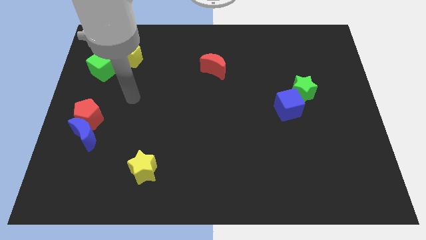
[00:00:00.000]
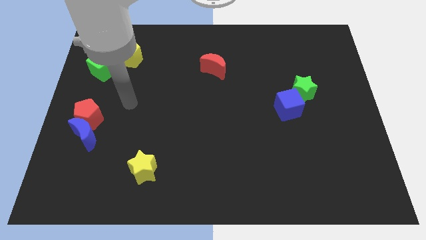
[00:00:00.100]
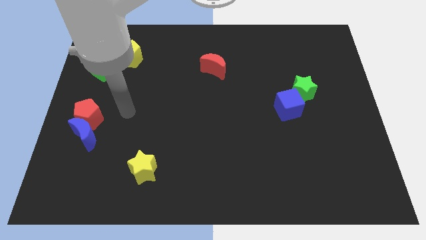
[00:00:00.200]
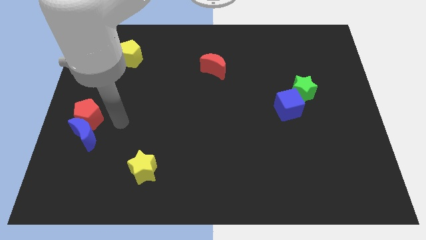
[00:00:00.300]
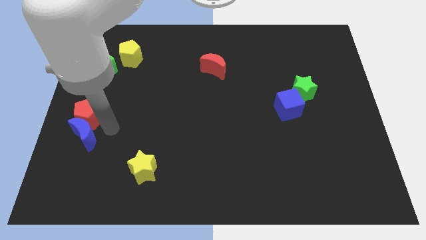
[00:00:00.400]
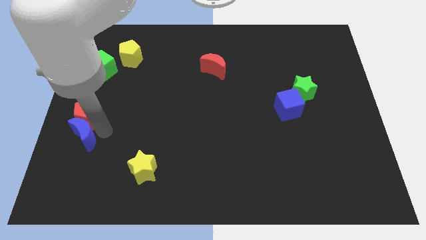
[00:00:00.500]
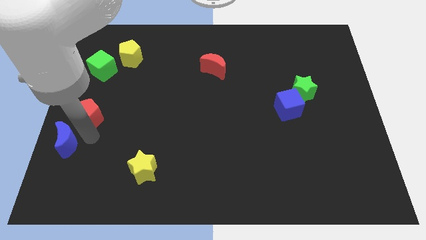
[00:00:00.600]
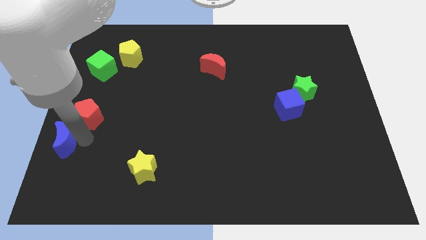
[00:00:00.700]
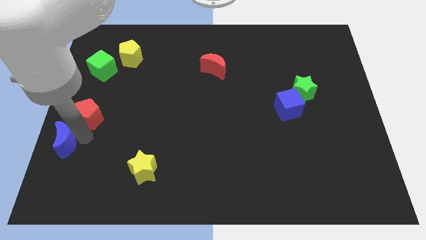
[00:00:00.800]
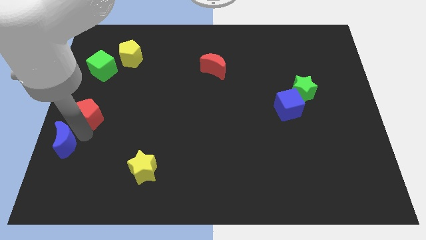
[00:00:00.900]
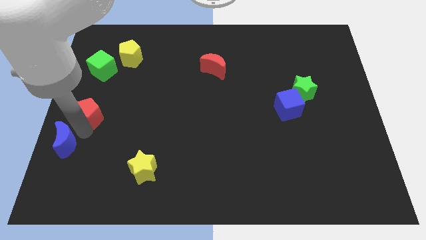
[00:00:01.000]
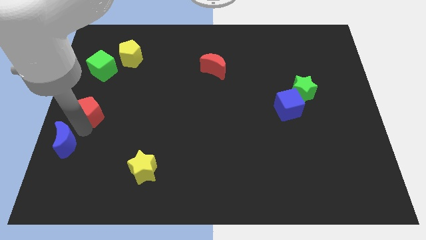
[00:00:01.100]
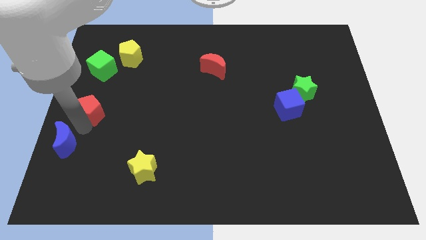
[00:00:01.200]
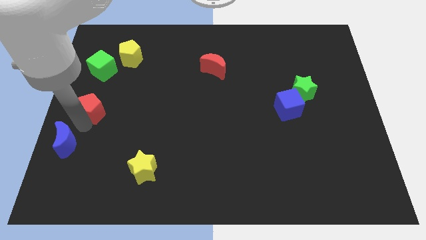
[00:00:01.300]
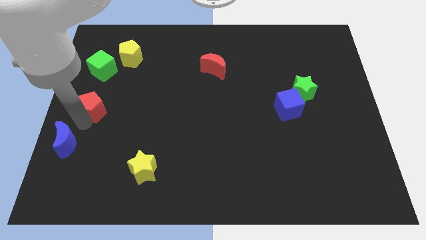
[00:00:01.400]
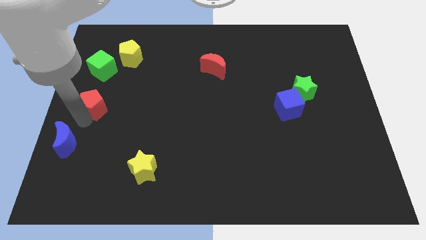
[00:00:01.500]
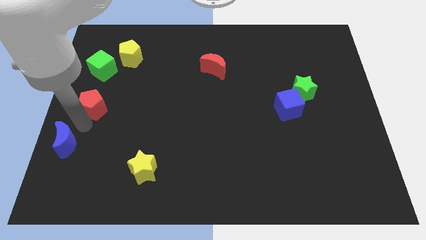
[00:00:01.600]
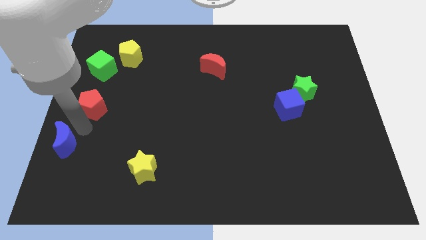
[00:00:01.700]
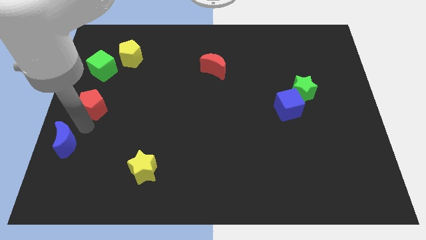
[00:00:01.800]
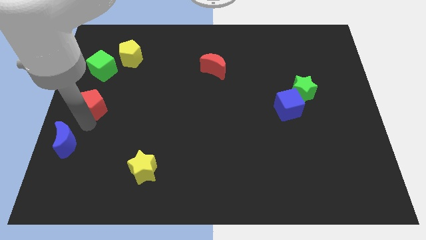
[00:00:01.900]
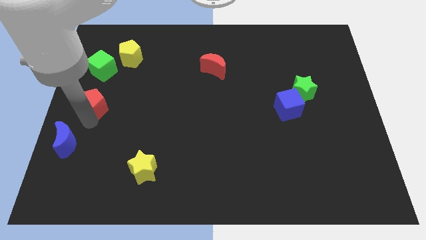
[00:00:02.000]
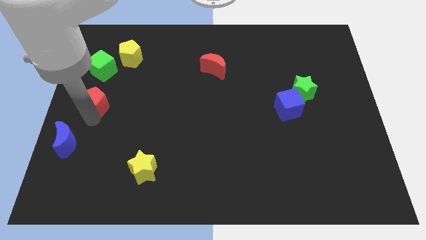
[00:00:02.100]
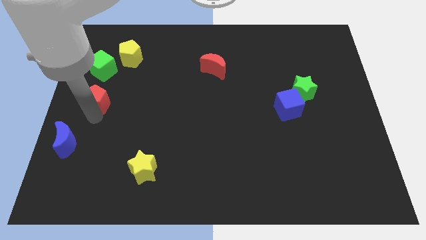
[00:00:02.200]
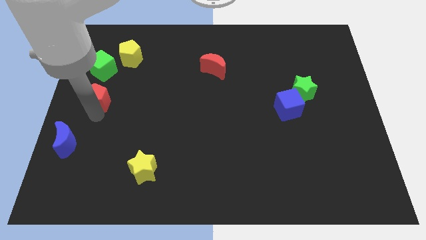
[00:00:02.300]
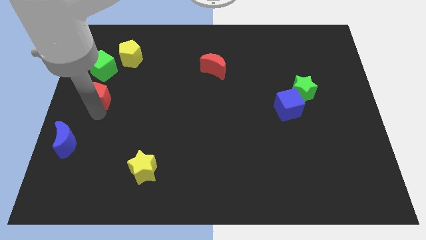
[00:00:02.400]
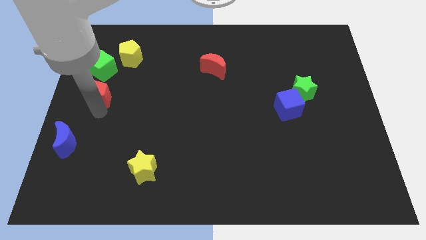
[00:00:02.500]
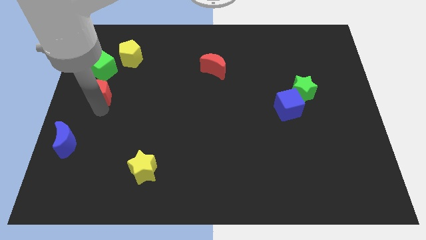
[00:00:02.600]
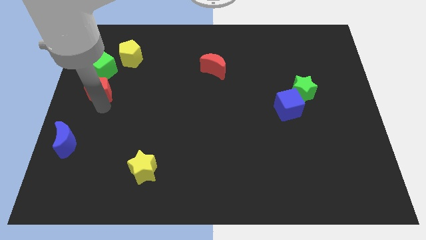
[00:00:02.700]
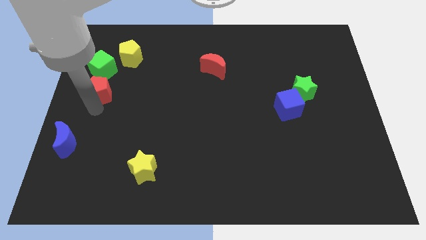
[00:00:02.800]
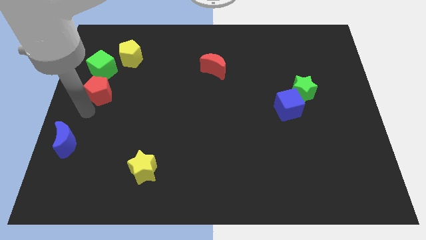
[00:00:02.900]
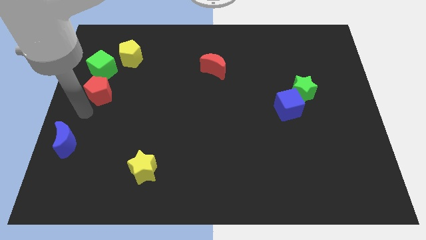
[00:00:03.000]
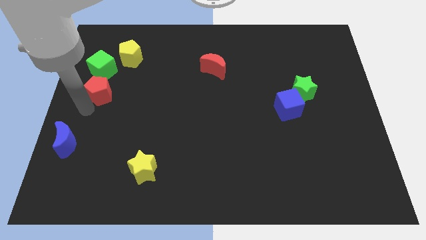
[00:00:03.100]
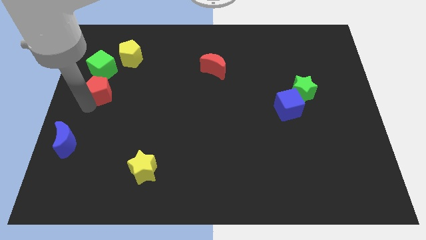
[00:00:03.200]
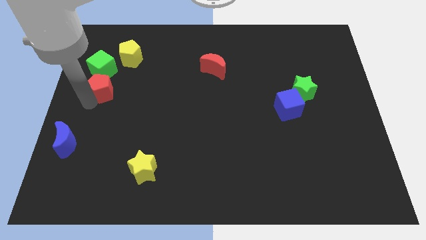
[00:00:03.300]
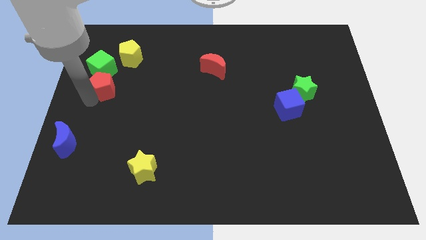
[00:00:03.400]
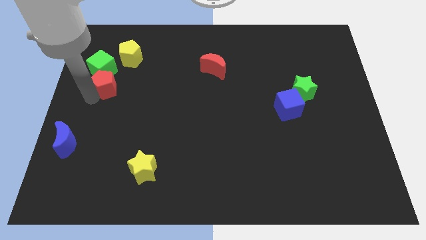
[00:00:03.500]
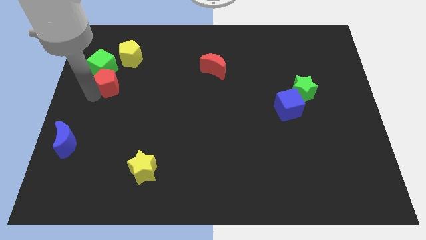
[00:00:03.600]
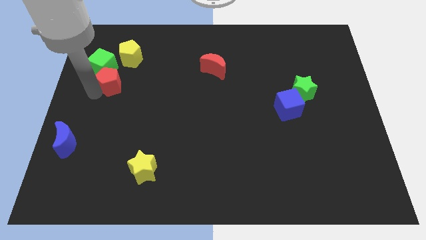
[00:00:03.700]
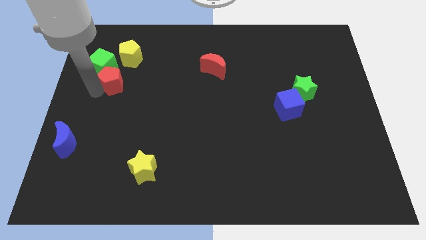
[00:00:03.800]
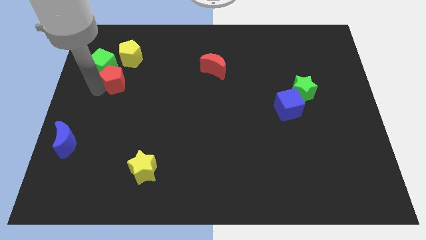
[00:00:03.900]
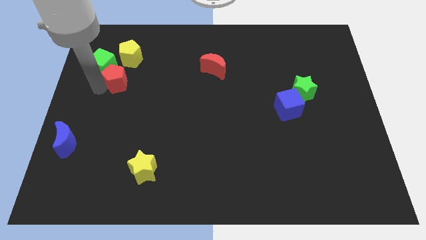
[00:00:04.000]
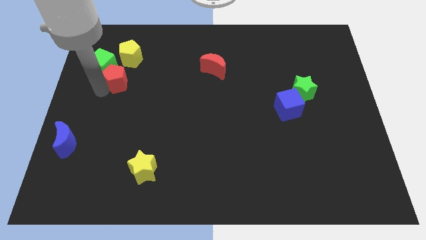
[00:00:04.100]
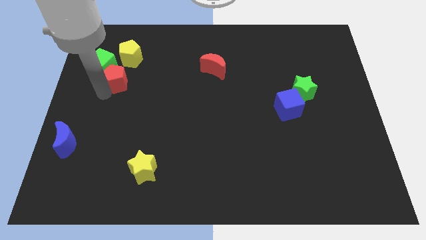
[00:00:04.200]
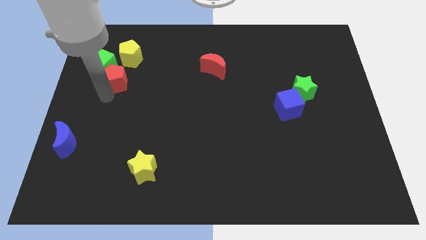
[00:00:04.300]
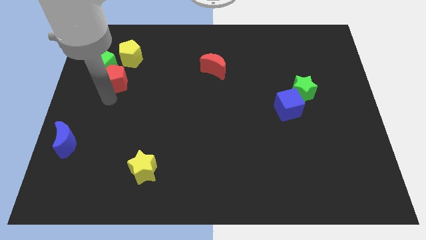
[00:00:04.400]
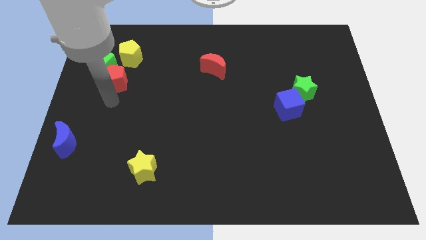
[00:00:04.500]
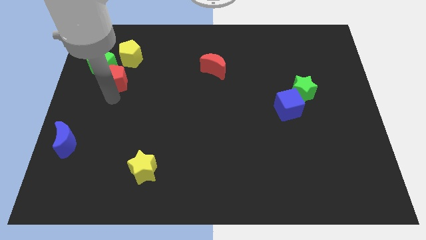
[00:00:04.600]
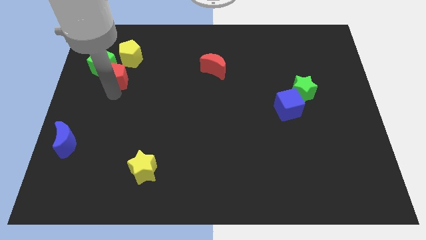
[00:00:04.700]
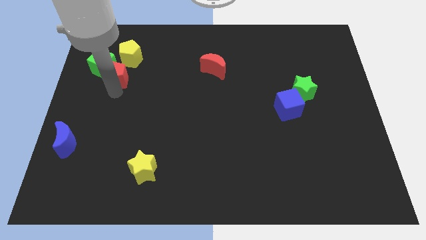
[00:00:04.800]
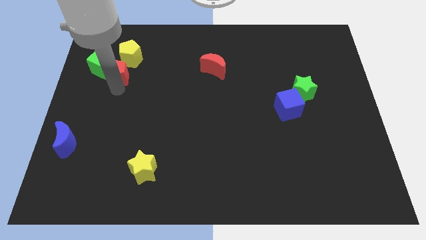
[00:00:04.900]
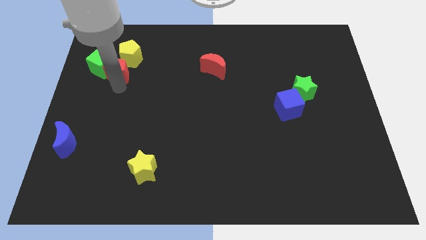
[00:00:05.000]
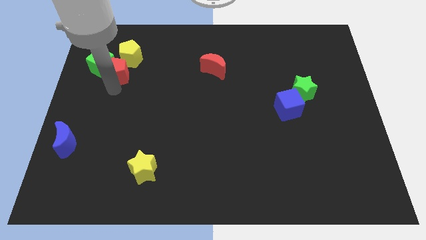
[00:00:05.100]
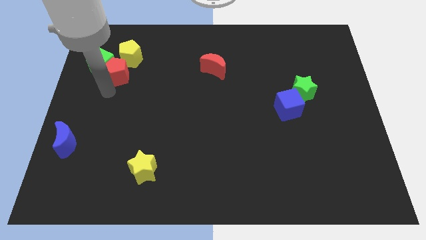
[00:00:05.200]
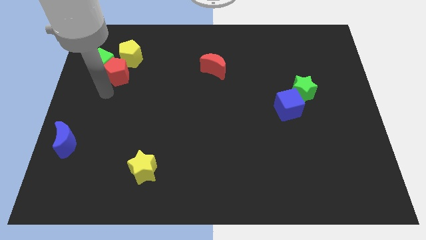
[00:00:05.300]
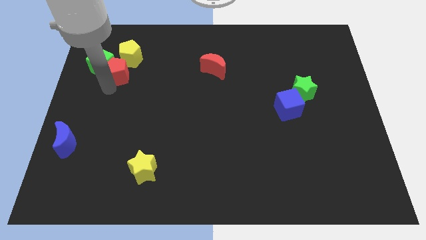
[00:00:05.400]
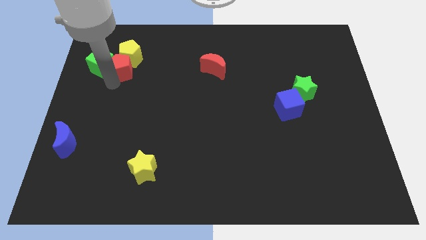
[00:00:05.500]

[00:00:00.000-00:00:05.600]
put the red pentagon towards the yellow pentagon

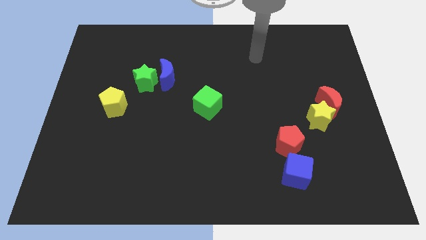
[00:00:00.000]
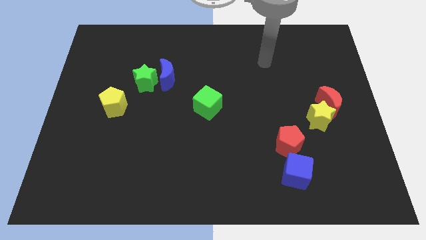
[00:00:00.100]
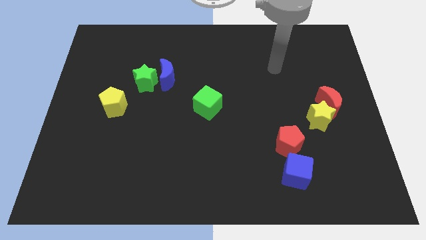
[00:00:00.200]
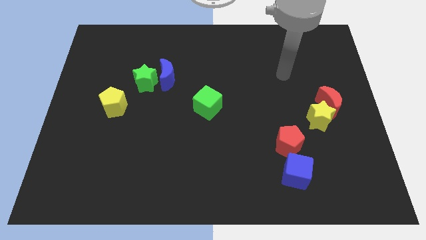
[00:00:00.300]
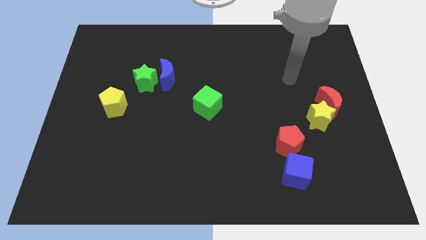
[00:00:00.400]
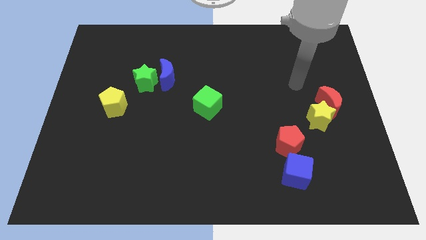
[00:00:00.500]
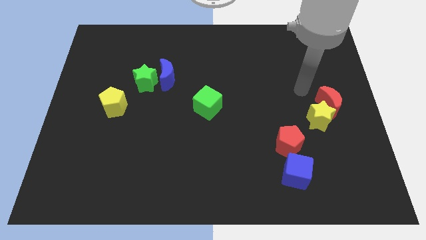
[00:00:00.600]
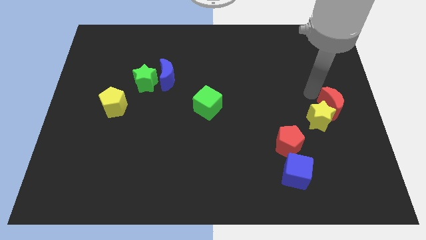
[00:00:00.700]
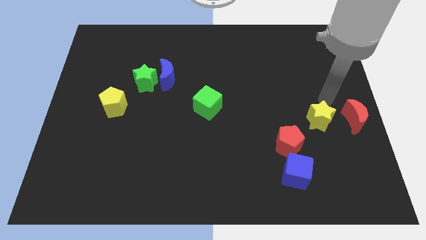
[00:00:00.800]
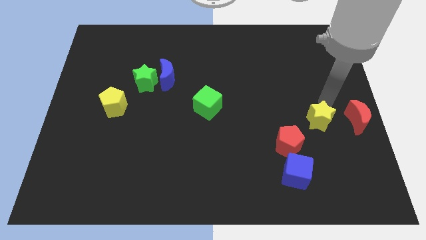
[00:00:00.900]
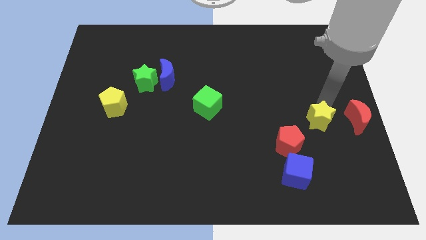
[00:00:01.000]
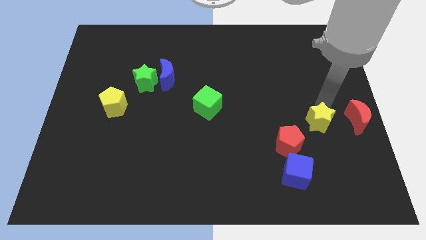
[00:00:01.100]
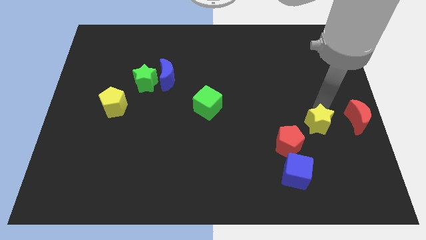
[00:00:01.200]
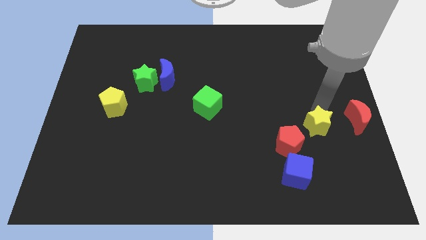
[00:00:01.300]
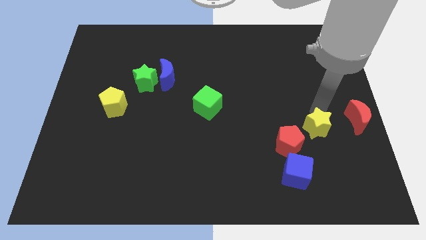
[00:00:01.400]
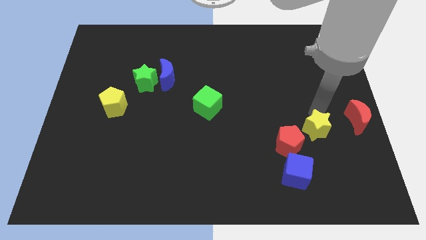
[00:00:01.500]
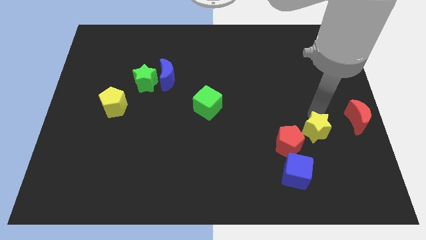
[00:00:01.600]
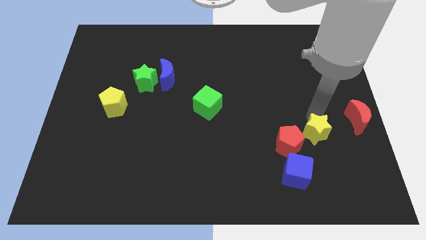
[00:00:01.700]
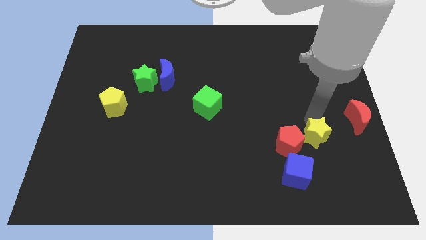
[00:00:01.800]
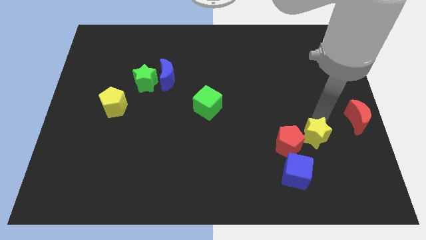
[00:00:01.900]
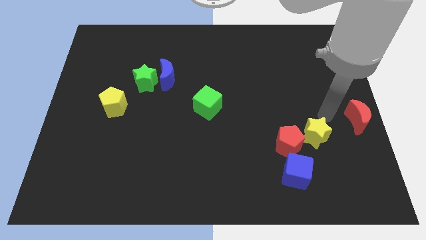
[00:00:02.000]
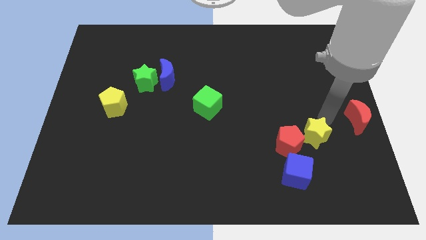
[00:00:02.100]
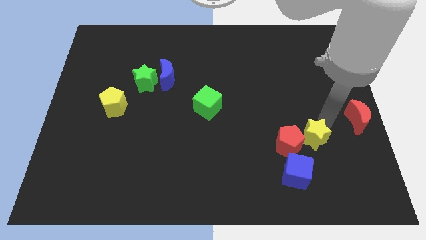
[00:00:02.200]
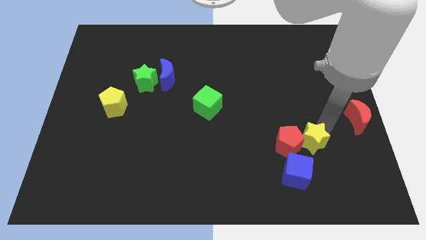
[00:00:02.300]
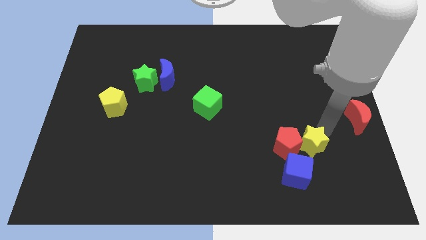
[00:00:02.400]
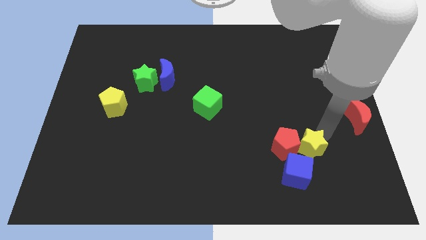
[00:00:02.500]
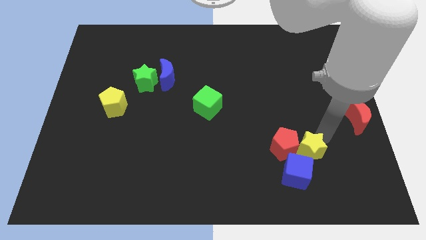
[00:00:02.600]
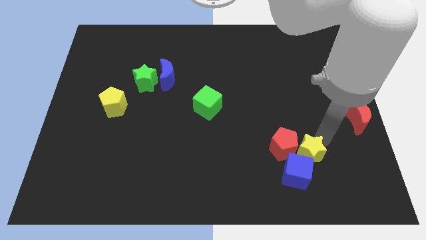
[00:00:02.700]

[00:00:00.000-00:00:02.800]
push the yellow star close to the blue cube
